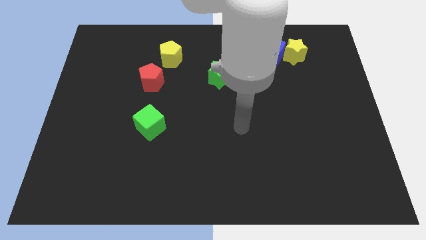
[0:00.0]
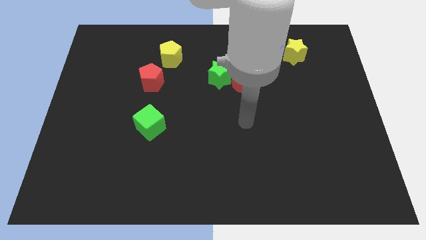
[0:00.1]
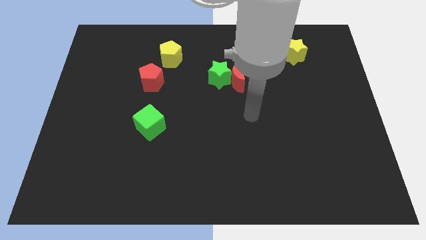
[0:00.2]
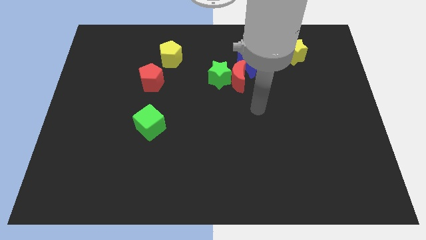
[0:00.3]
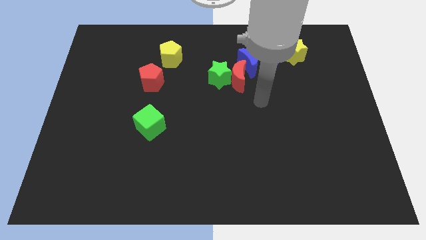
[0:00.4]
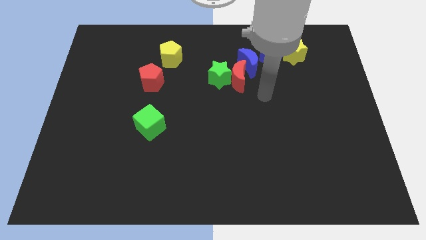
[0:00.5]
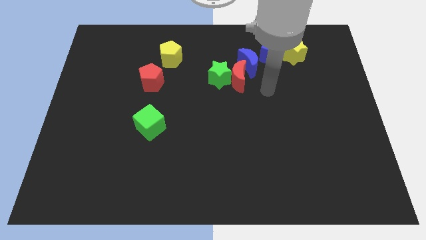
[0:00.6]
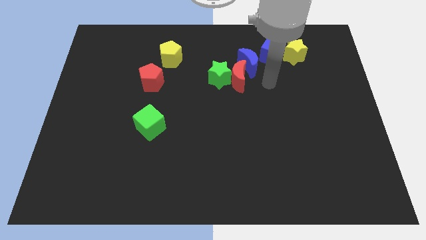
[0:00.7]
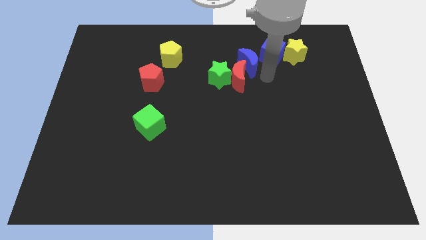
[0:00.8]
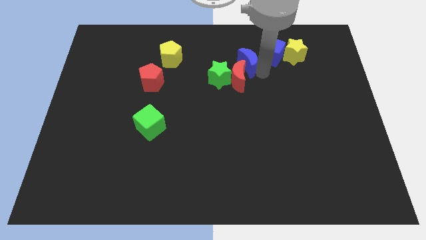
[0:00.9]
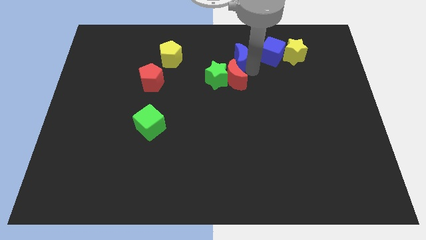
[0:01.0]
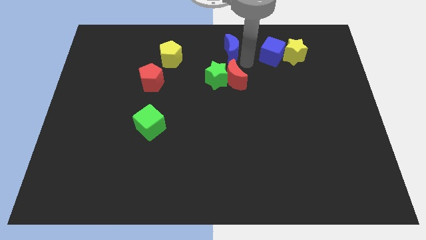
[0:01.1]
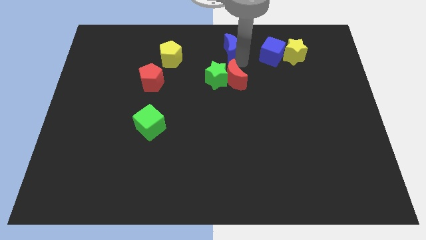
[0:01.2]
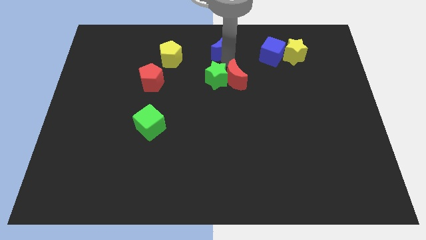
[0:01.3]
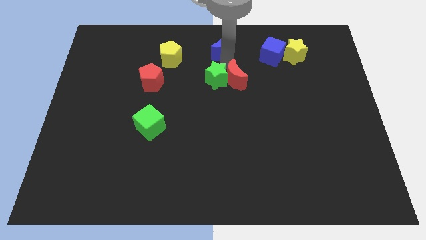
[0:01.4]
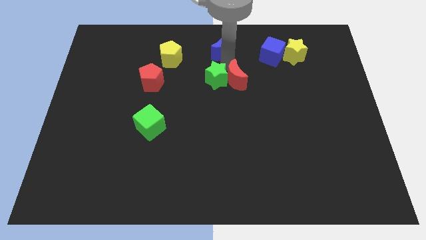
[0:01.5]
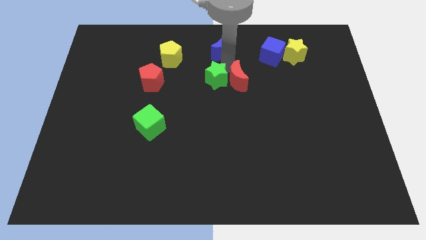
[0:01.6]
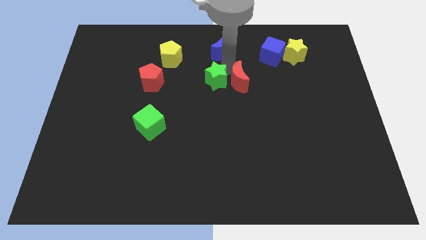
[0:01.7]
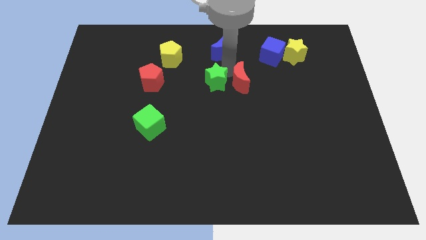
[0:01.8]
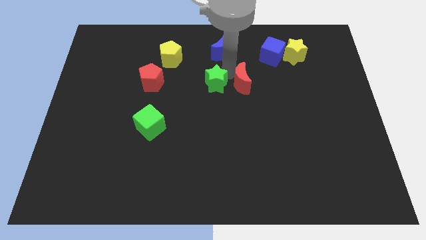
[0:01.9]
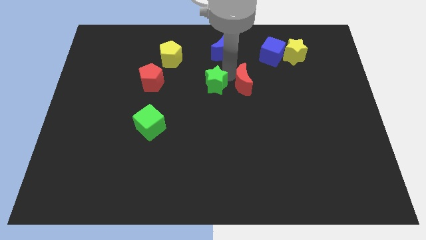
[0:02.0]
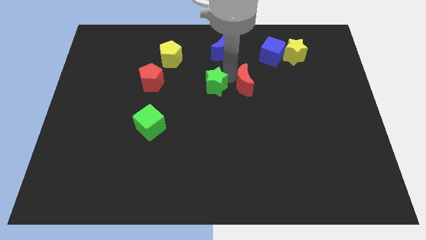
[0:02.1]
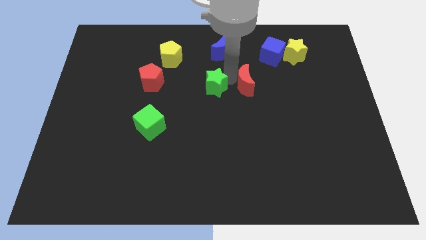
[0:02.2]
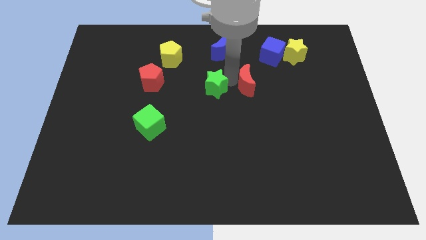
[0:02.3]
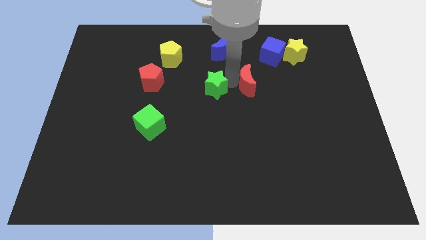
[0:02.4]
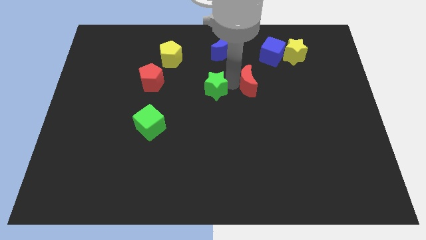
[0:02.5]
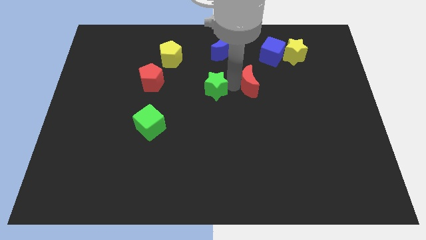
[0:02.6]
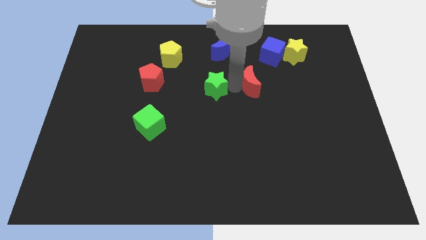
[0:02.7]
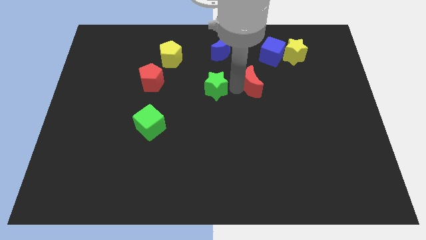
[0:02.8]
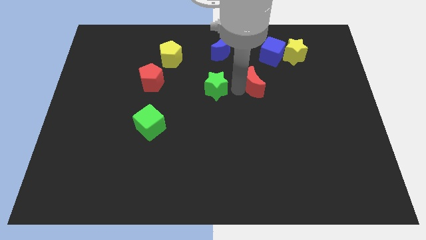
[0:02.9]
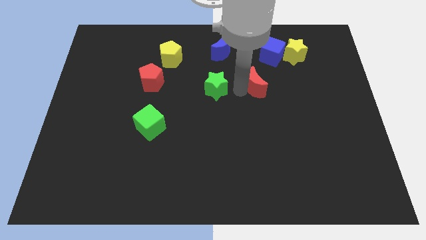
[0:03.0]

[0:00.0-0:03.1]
move the red moon away from the green star and blue moon

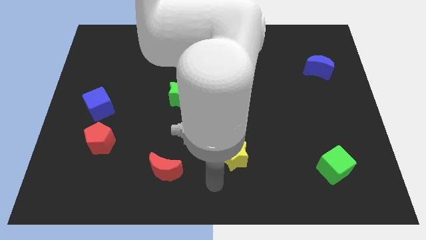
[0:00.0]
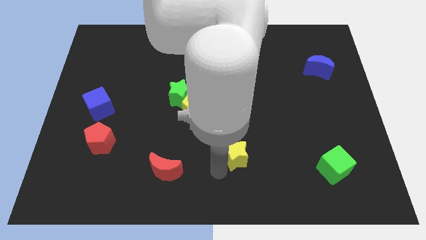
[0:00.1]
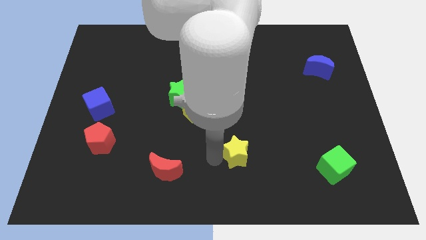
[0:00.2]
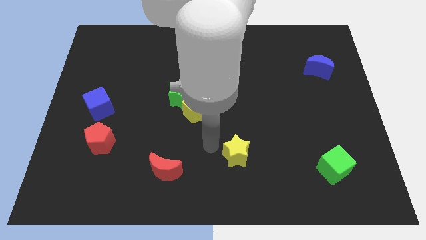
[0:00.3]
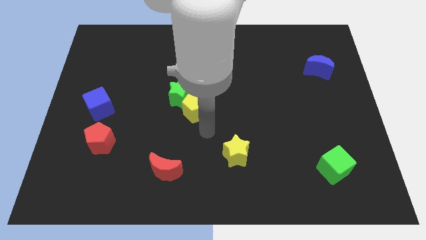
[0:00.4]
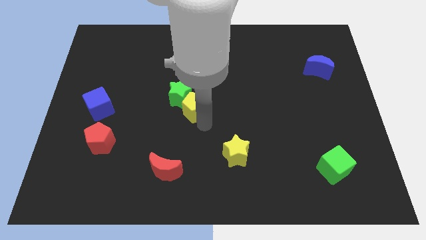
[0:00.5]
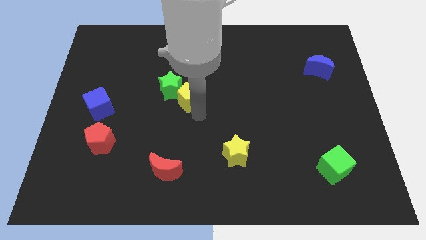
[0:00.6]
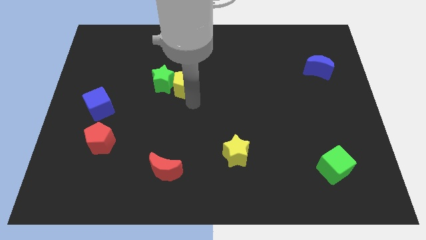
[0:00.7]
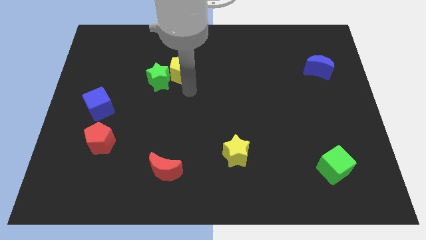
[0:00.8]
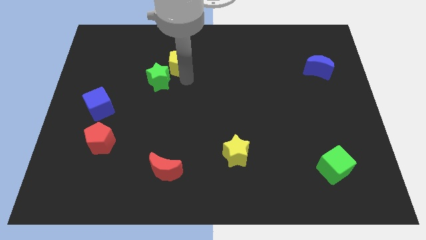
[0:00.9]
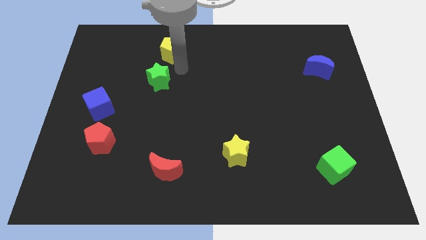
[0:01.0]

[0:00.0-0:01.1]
move the green star away from the yellow pentagon

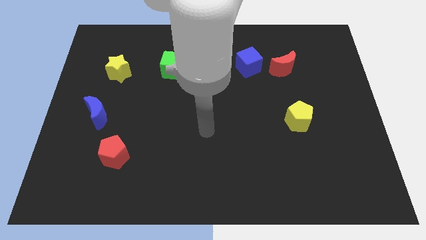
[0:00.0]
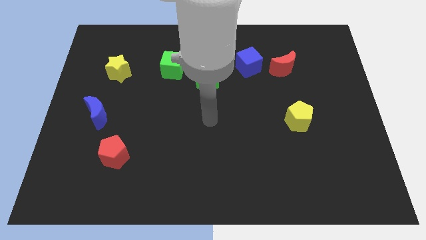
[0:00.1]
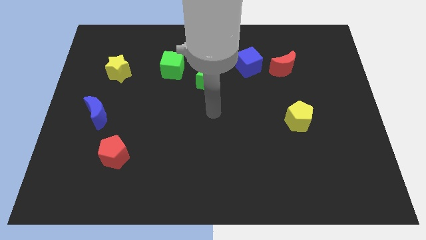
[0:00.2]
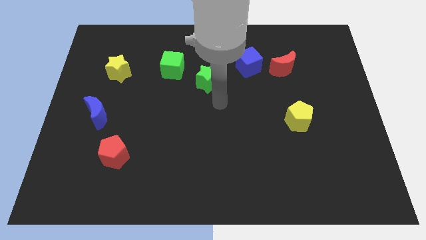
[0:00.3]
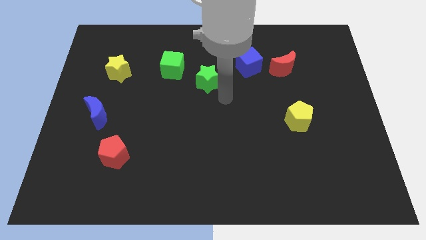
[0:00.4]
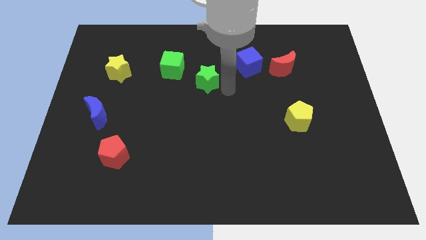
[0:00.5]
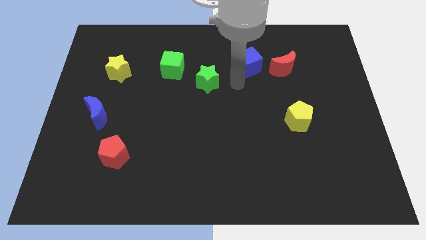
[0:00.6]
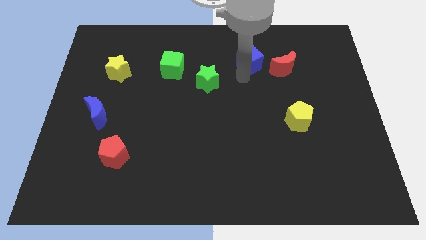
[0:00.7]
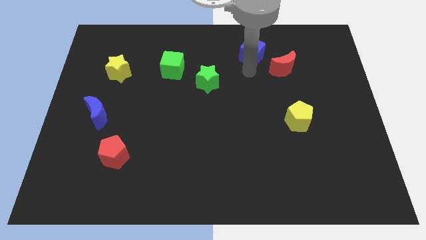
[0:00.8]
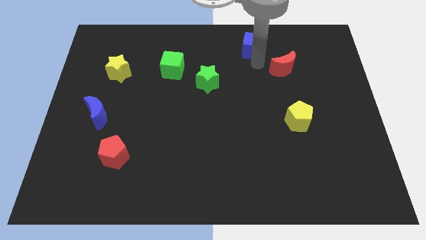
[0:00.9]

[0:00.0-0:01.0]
pull the red moon apart from the blue cube

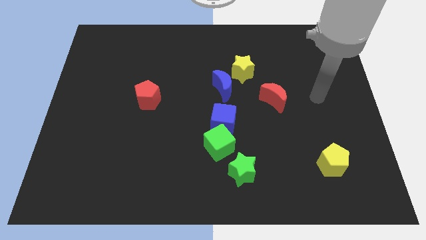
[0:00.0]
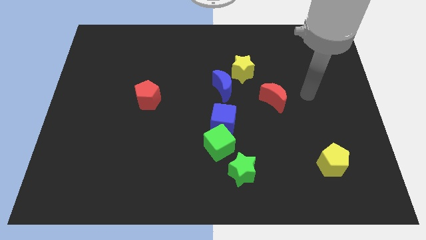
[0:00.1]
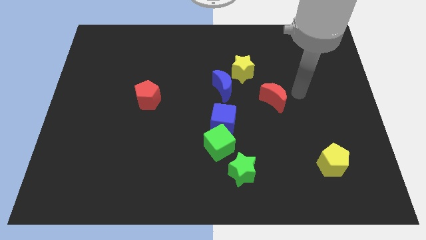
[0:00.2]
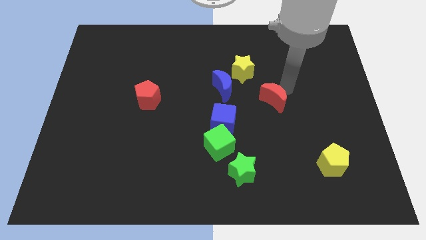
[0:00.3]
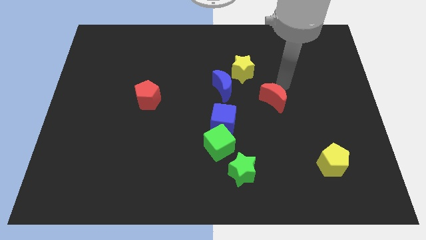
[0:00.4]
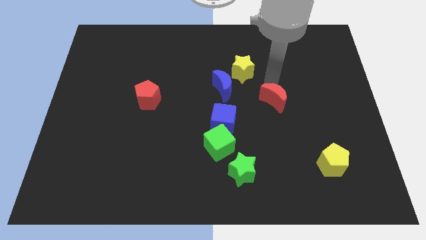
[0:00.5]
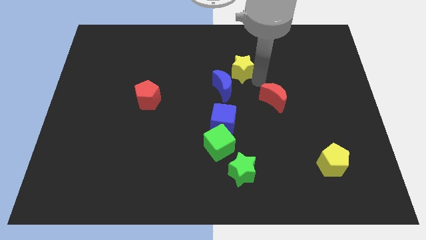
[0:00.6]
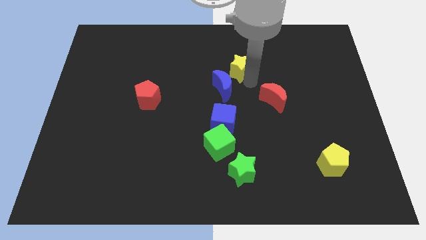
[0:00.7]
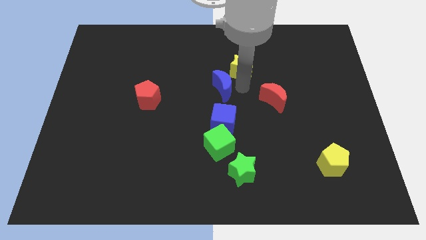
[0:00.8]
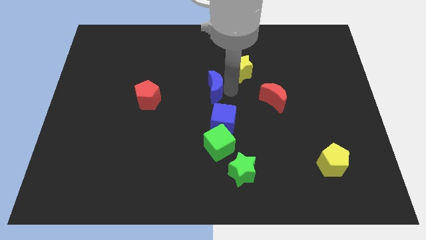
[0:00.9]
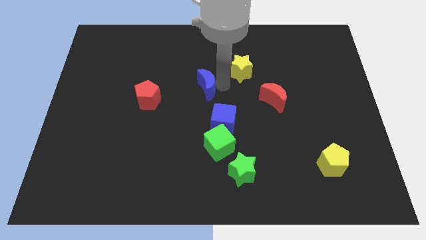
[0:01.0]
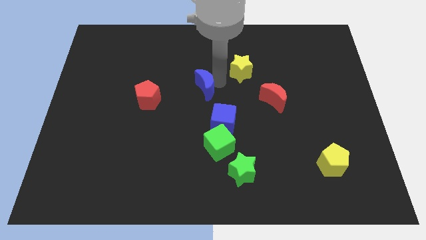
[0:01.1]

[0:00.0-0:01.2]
pull the yellow star apart from the blue moon

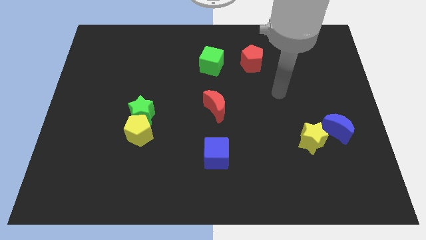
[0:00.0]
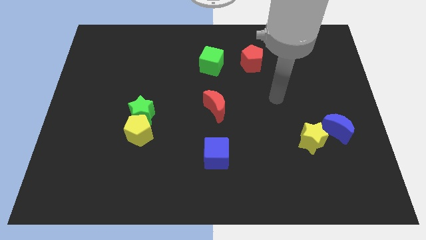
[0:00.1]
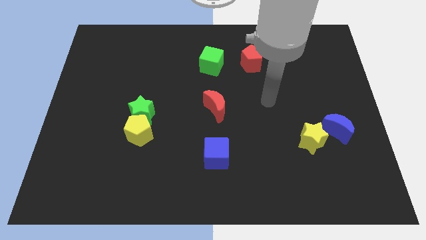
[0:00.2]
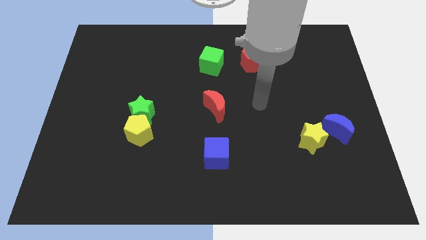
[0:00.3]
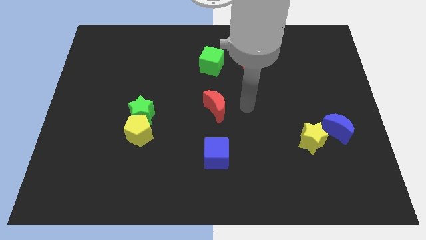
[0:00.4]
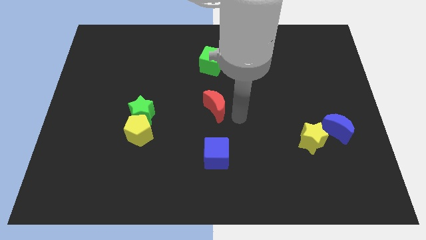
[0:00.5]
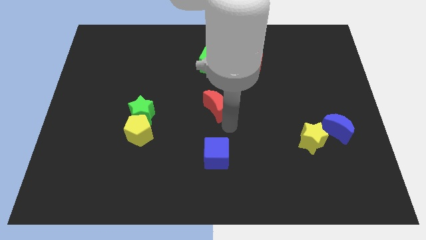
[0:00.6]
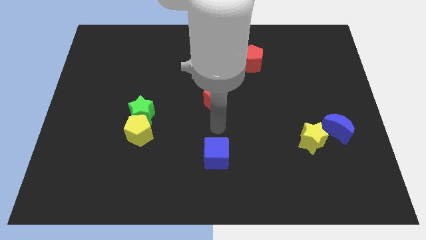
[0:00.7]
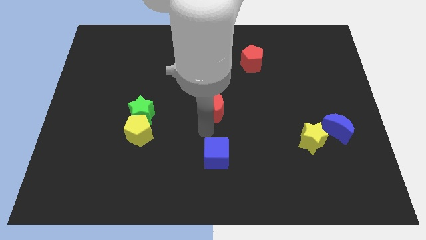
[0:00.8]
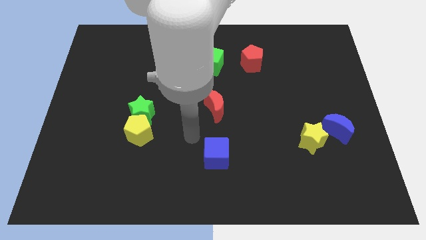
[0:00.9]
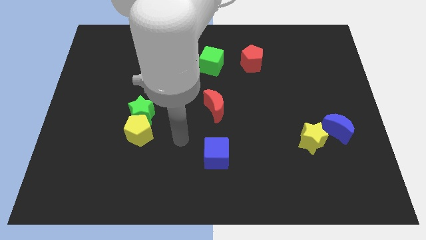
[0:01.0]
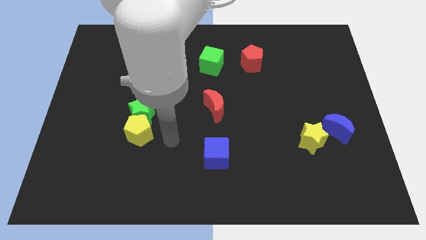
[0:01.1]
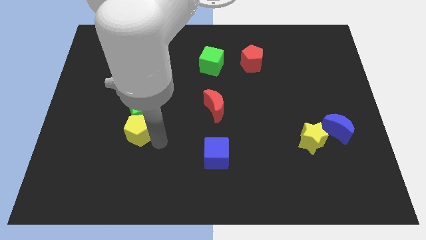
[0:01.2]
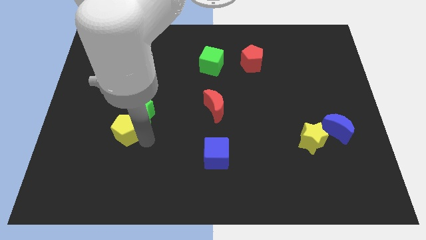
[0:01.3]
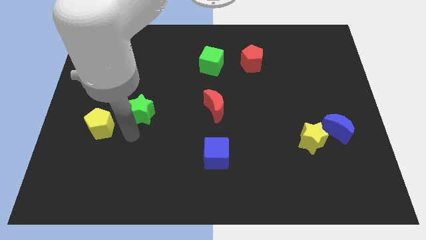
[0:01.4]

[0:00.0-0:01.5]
separate the green star from the yellow pentagon

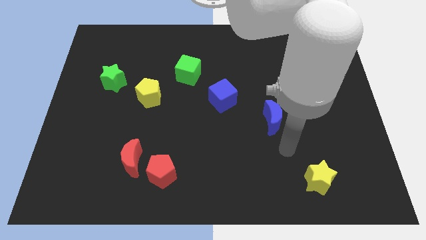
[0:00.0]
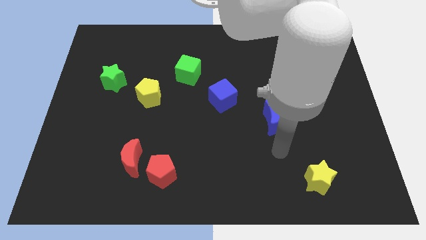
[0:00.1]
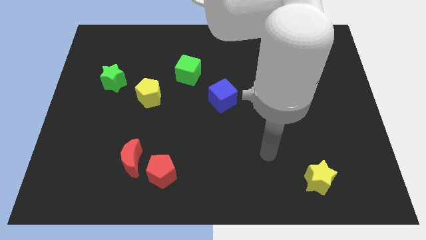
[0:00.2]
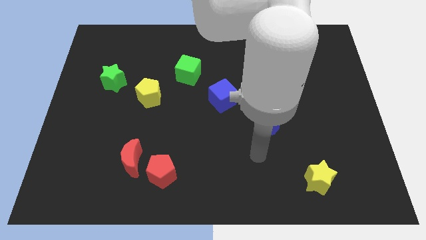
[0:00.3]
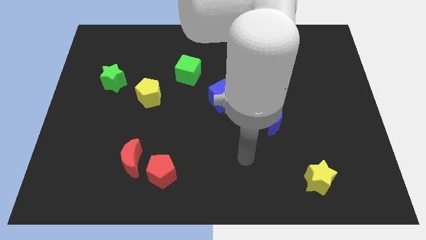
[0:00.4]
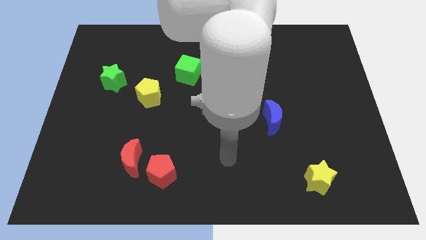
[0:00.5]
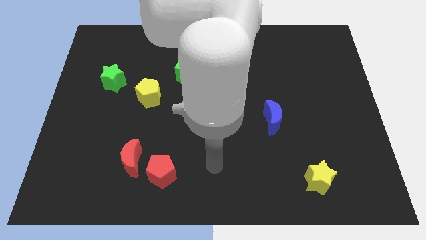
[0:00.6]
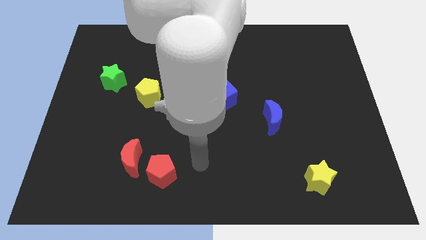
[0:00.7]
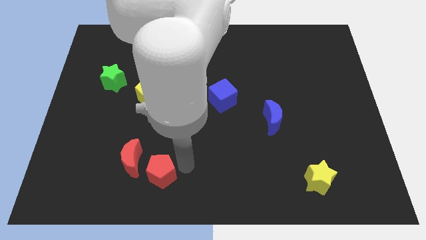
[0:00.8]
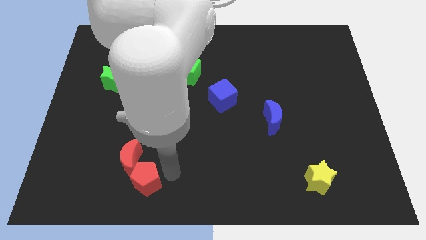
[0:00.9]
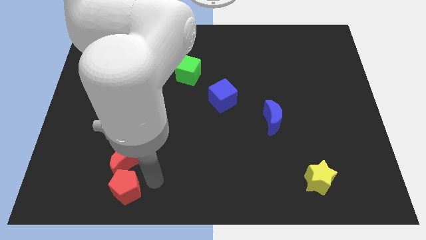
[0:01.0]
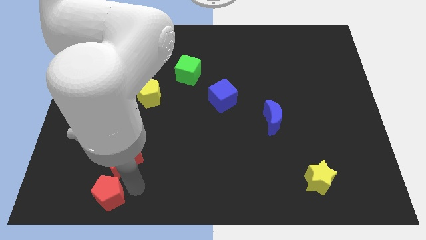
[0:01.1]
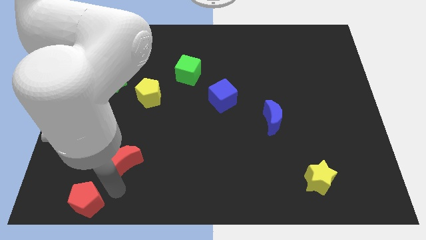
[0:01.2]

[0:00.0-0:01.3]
pull the red moon apart from the red pentagon

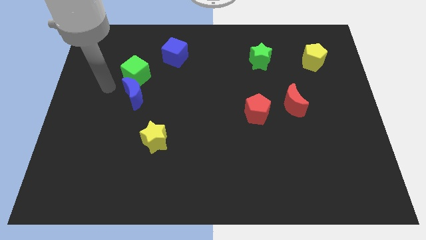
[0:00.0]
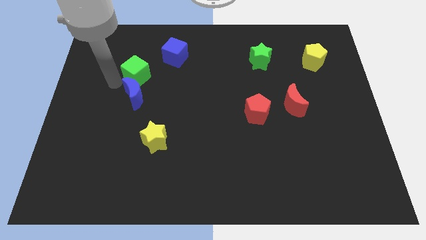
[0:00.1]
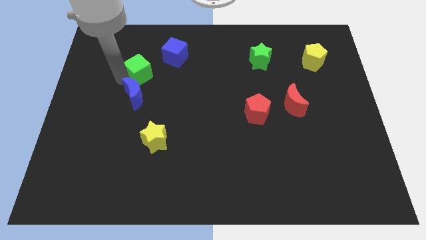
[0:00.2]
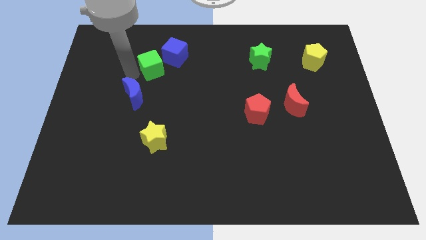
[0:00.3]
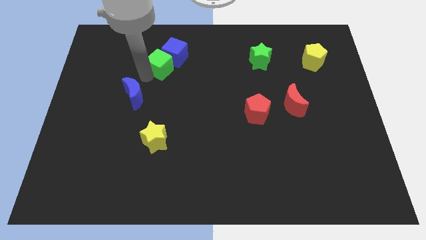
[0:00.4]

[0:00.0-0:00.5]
move the blue moon away from the green cube
